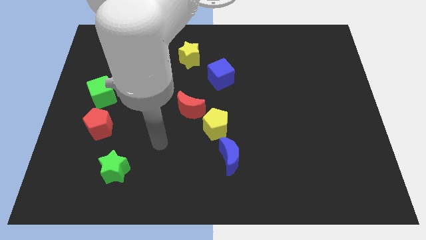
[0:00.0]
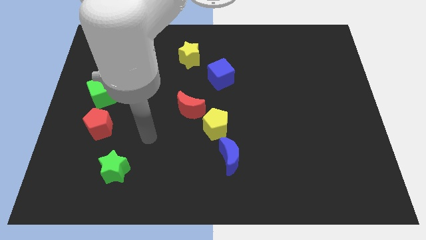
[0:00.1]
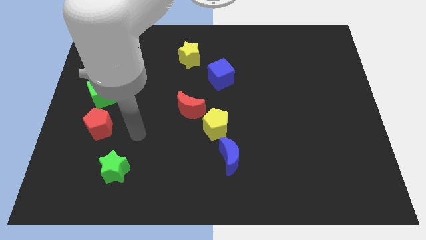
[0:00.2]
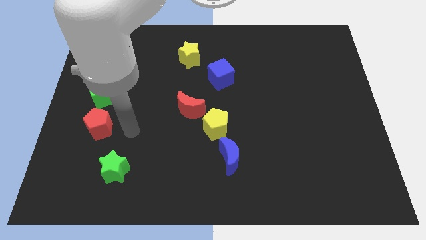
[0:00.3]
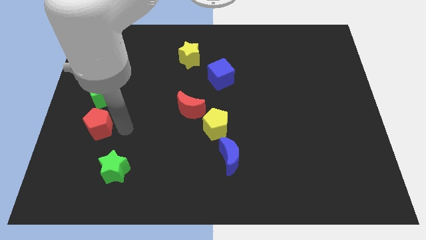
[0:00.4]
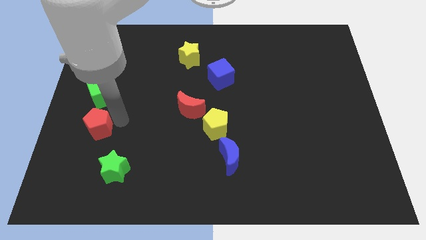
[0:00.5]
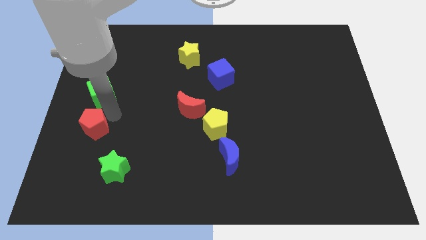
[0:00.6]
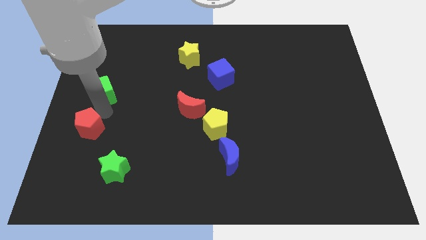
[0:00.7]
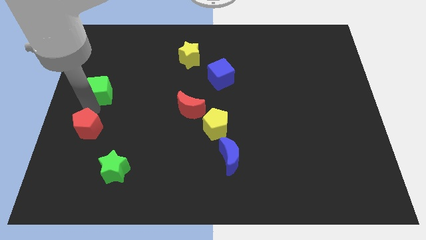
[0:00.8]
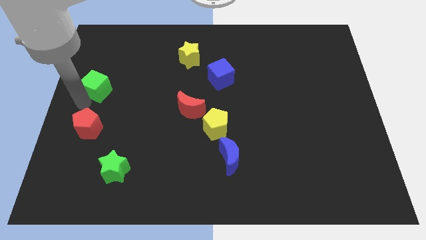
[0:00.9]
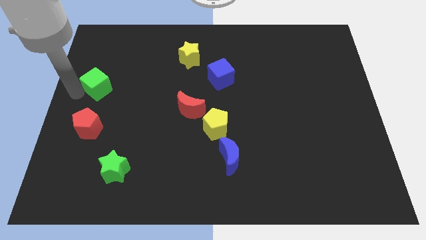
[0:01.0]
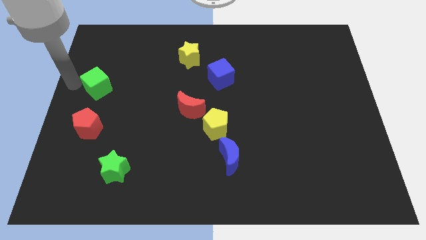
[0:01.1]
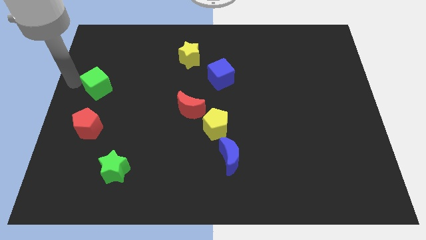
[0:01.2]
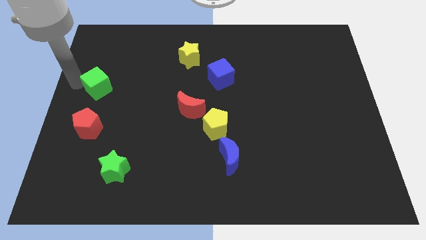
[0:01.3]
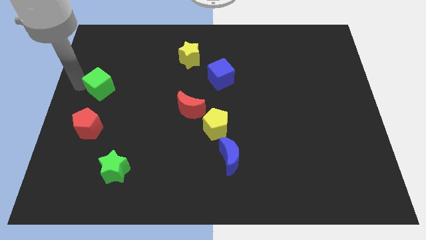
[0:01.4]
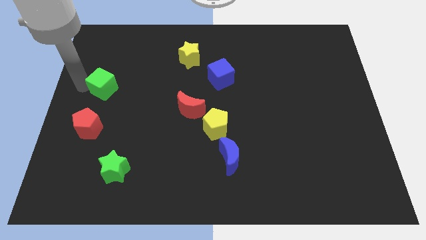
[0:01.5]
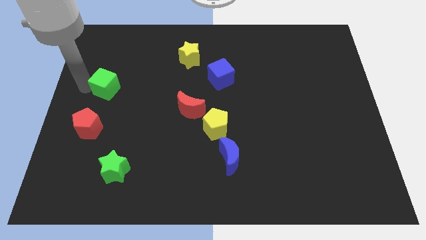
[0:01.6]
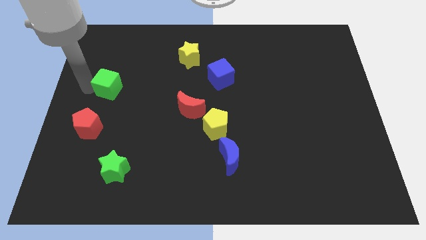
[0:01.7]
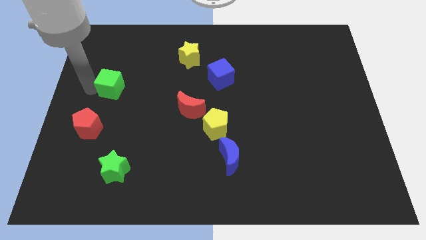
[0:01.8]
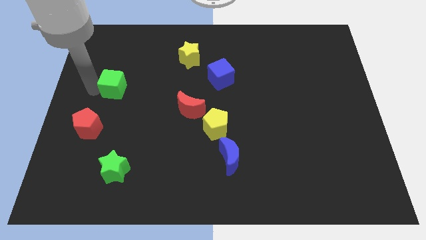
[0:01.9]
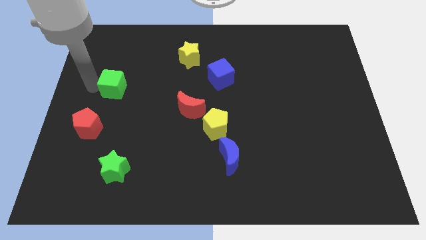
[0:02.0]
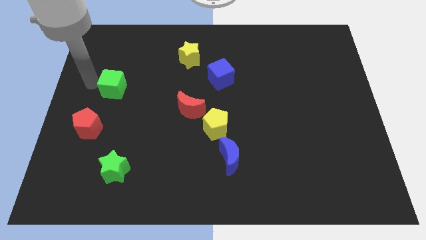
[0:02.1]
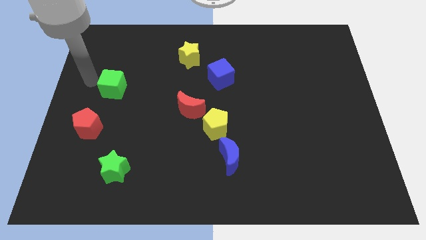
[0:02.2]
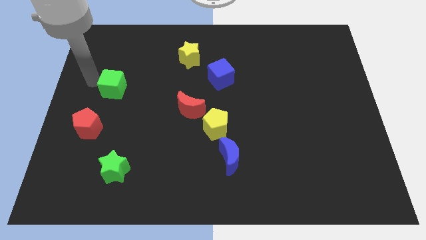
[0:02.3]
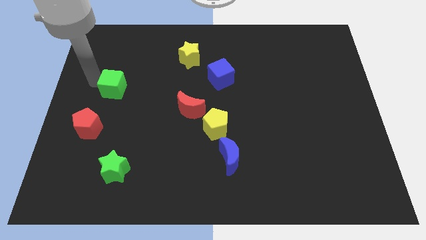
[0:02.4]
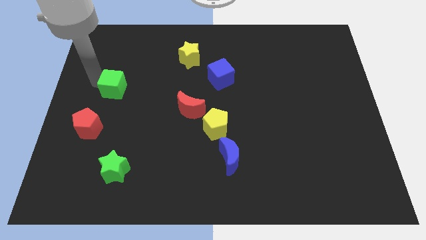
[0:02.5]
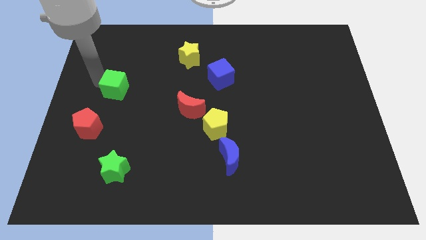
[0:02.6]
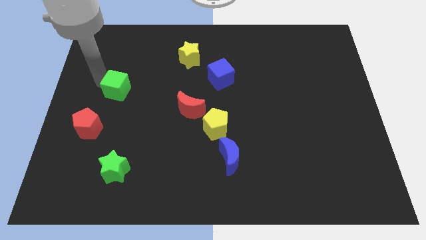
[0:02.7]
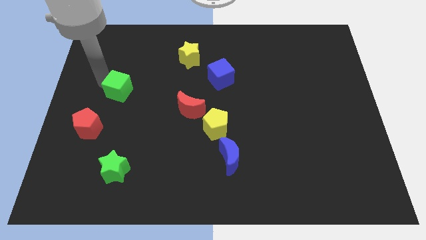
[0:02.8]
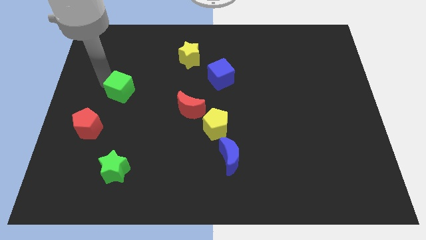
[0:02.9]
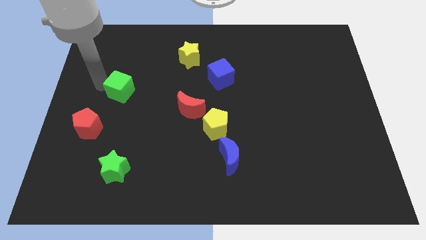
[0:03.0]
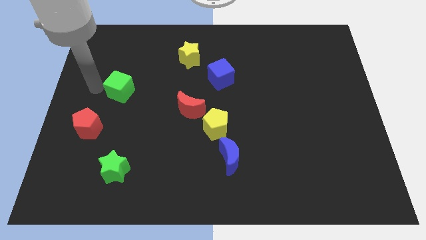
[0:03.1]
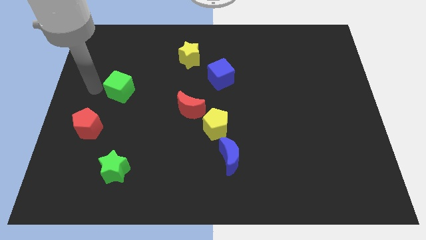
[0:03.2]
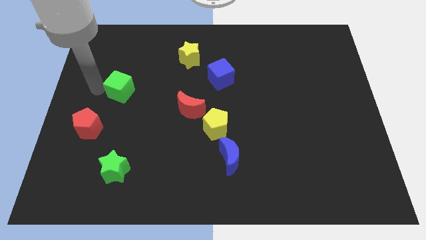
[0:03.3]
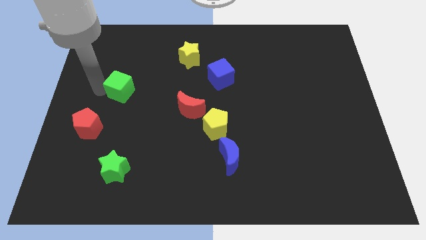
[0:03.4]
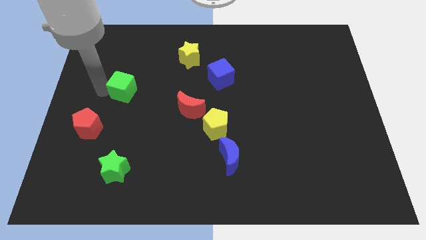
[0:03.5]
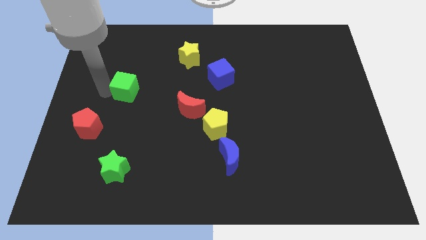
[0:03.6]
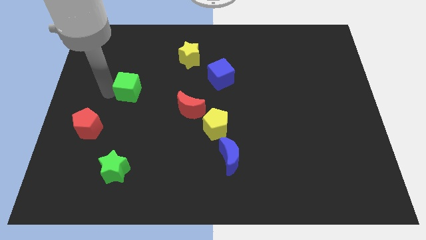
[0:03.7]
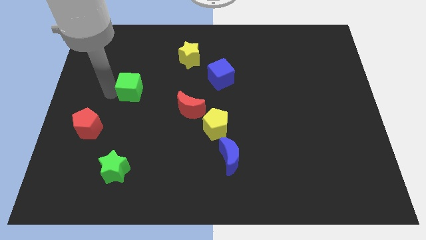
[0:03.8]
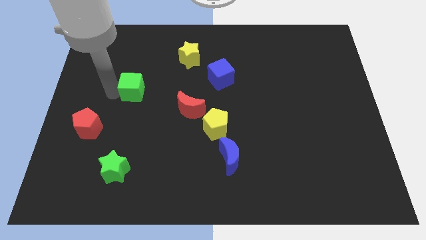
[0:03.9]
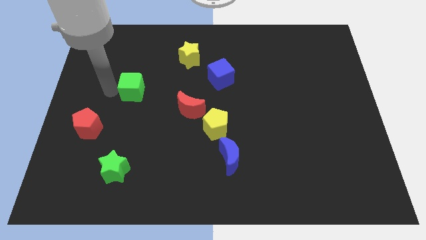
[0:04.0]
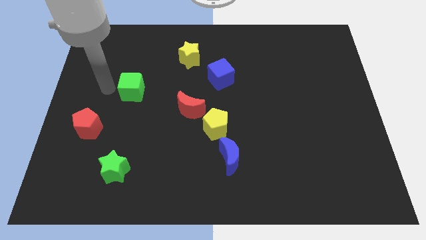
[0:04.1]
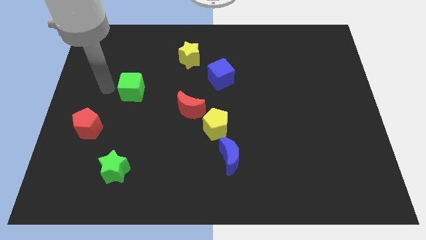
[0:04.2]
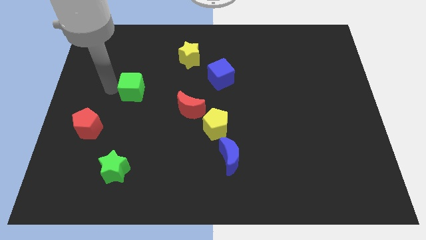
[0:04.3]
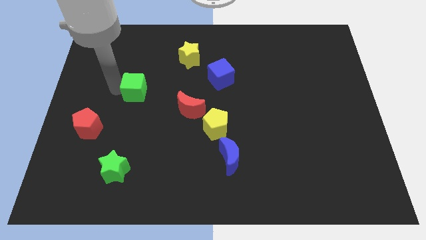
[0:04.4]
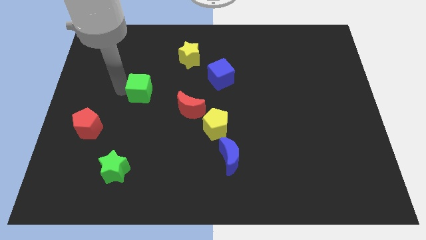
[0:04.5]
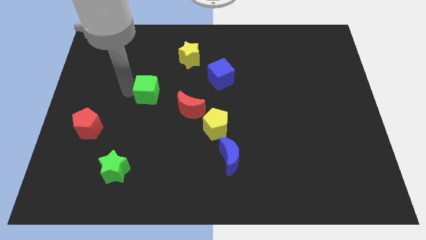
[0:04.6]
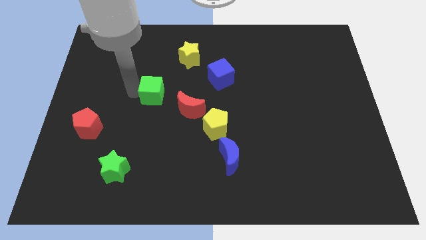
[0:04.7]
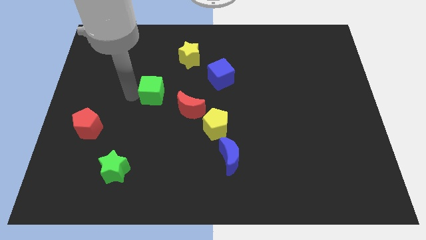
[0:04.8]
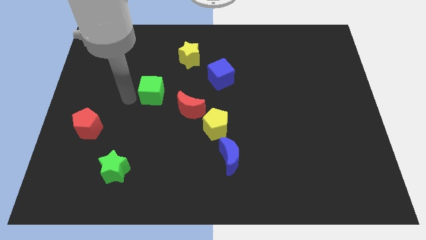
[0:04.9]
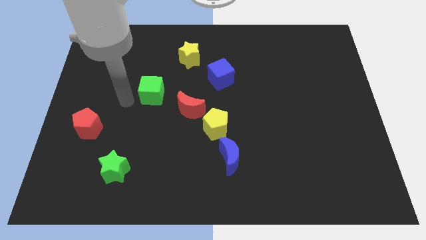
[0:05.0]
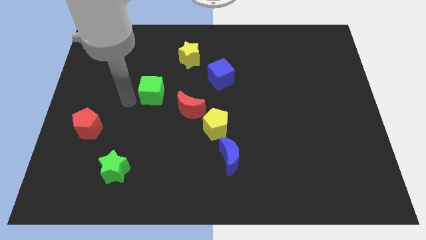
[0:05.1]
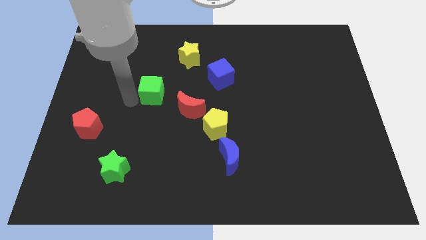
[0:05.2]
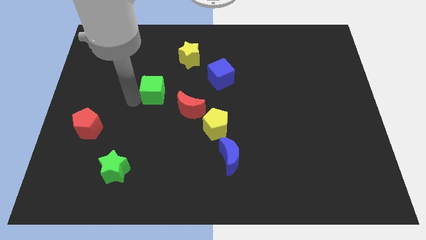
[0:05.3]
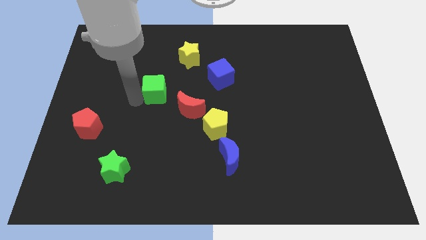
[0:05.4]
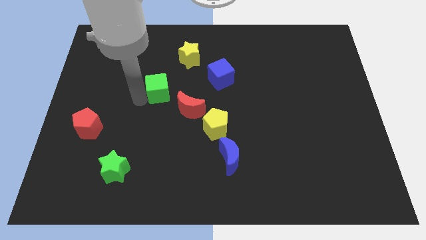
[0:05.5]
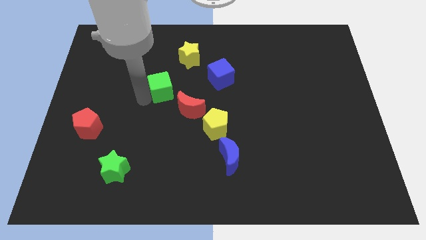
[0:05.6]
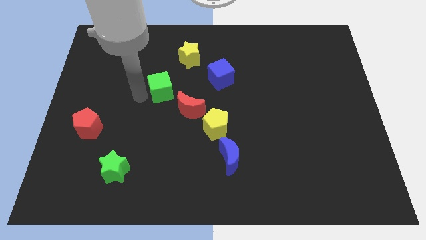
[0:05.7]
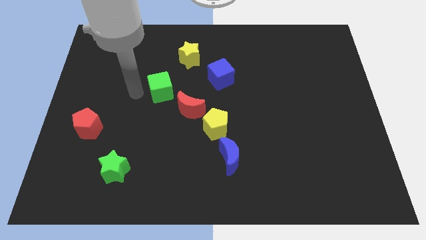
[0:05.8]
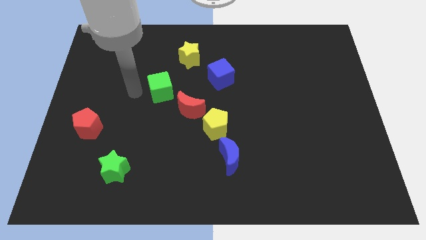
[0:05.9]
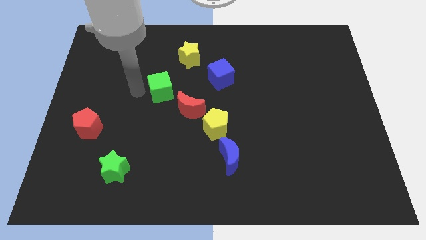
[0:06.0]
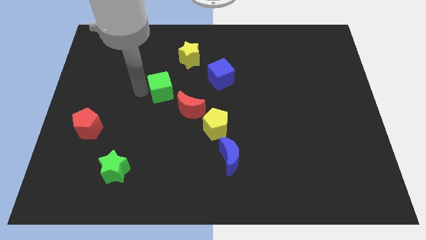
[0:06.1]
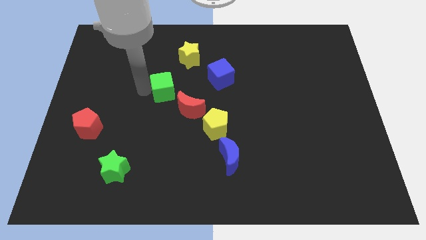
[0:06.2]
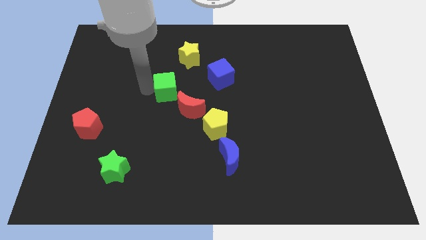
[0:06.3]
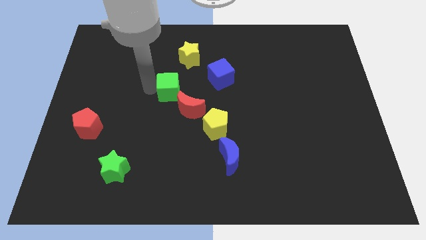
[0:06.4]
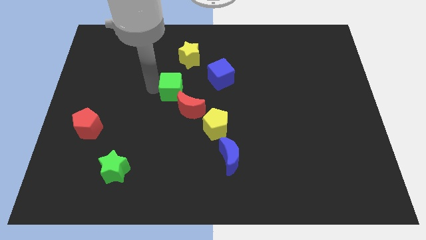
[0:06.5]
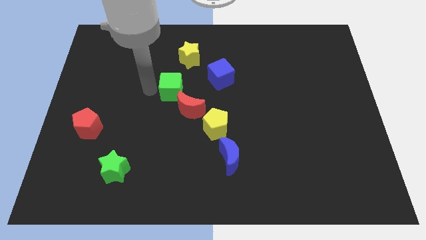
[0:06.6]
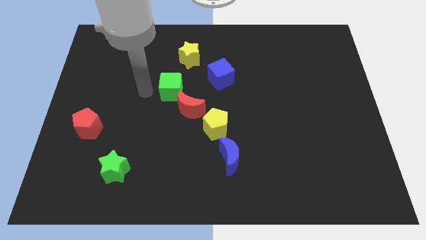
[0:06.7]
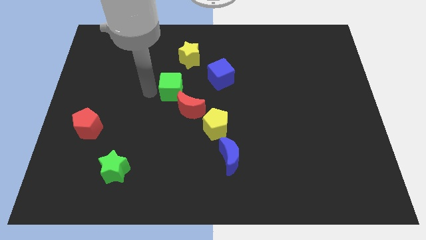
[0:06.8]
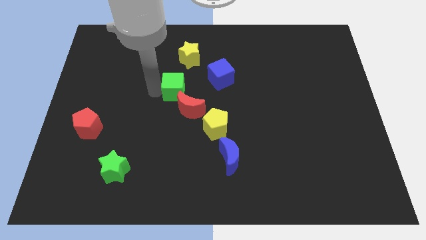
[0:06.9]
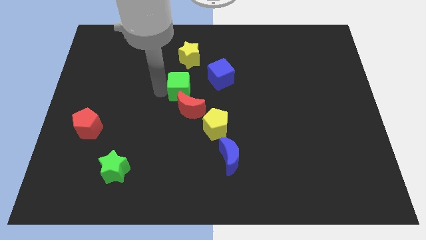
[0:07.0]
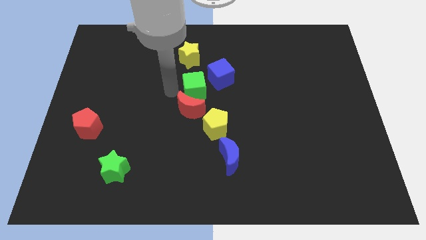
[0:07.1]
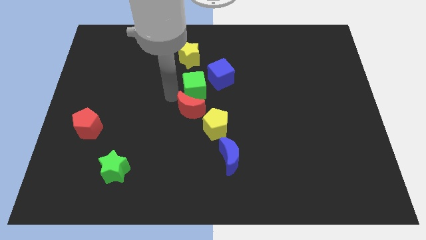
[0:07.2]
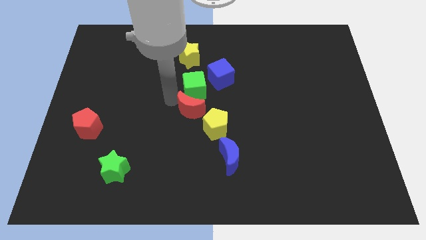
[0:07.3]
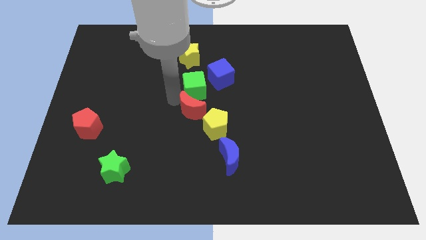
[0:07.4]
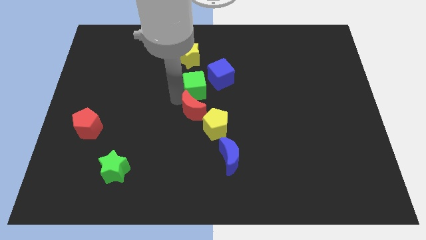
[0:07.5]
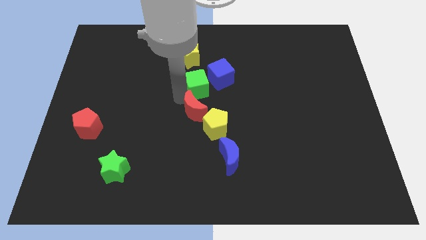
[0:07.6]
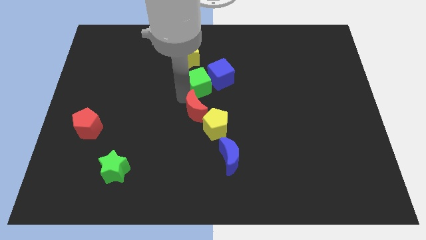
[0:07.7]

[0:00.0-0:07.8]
slide the green cube towards the blue cube
